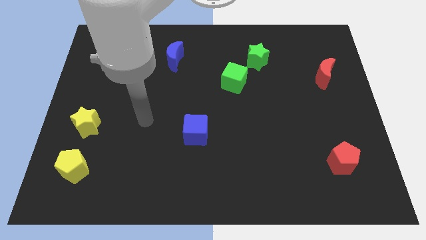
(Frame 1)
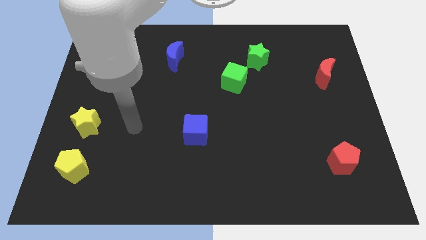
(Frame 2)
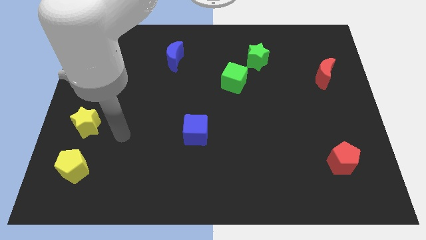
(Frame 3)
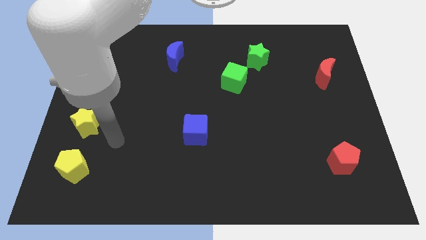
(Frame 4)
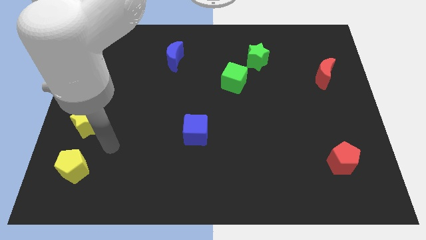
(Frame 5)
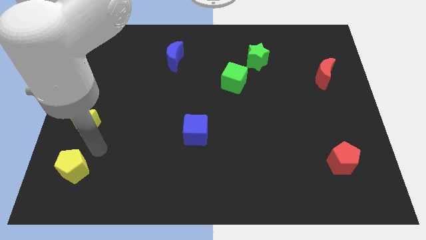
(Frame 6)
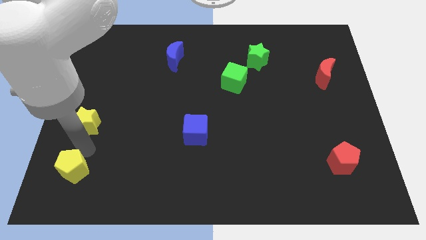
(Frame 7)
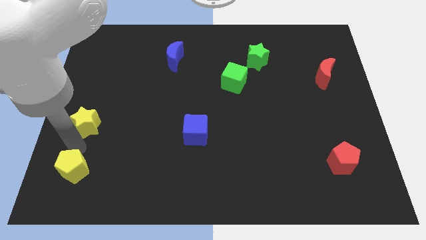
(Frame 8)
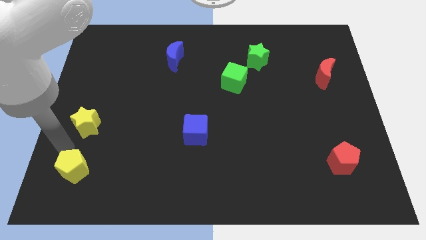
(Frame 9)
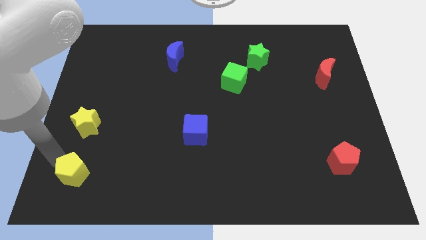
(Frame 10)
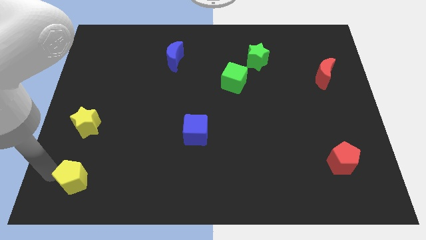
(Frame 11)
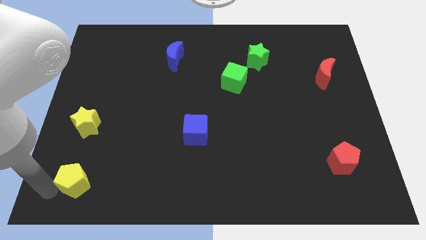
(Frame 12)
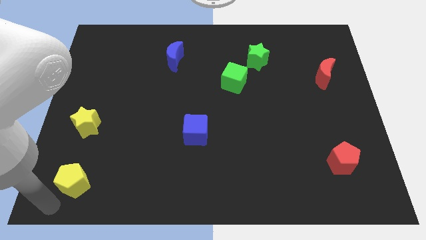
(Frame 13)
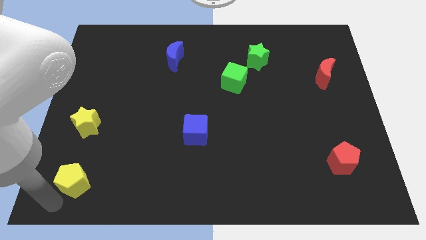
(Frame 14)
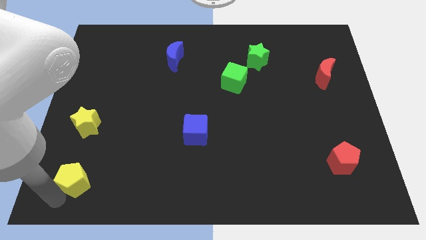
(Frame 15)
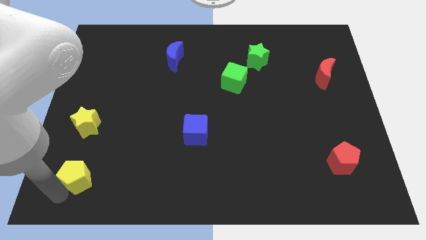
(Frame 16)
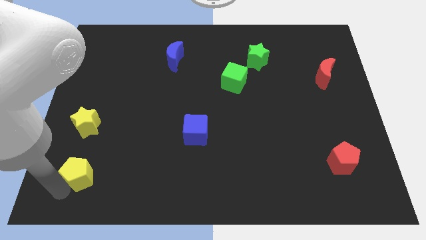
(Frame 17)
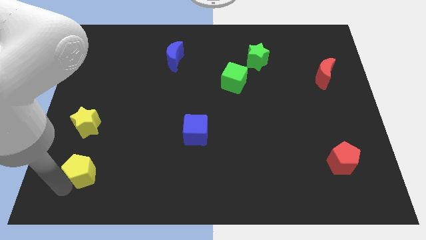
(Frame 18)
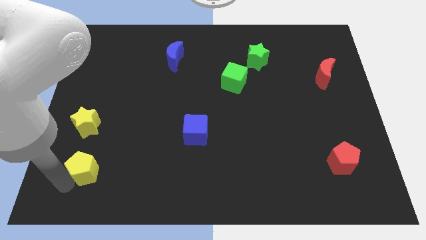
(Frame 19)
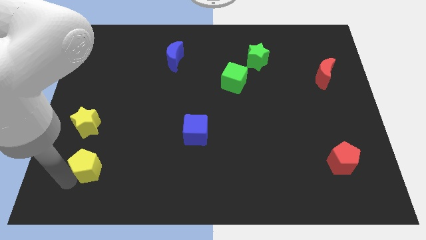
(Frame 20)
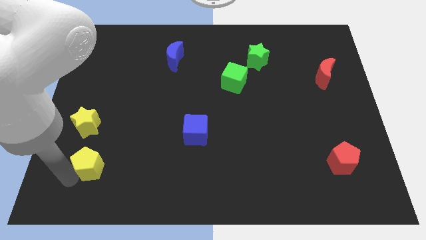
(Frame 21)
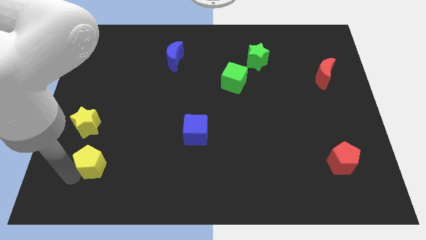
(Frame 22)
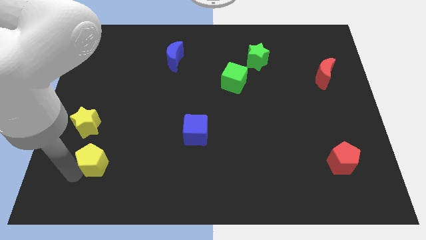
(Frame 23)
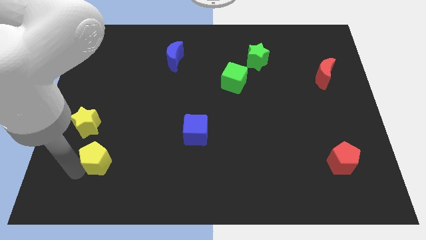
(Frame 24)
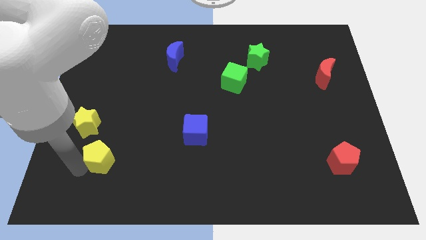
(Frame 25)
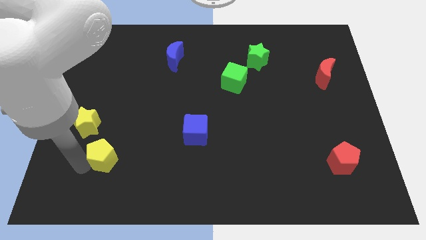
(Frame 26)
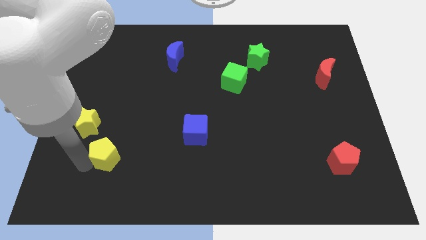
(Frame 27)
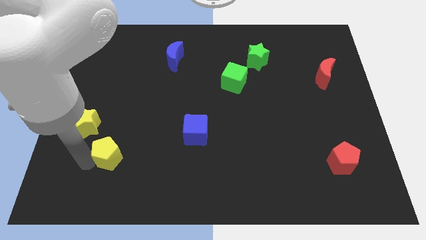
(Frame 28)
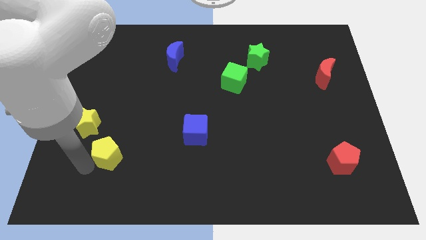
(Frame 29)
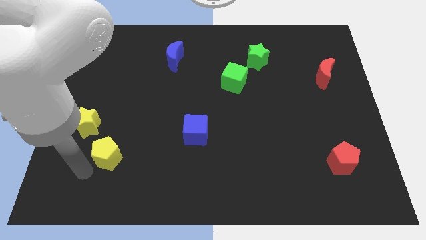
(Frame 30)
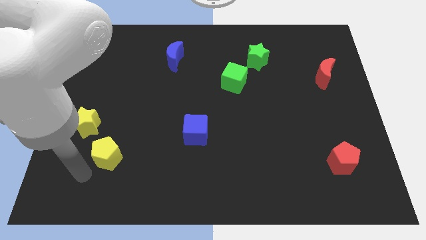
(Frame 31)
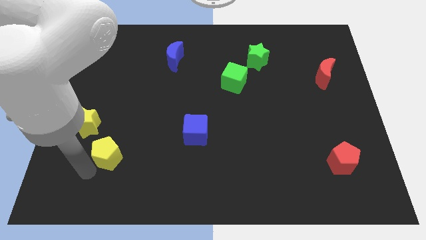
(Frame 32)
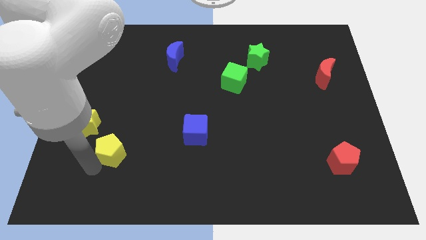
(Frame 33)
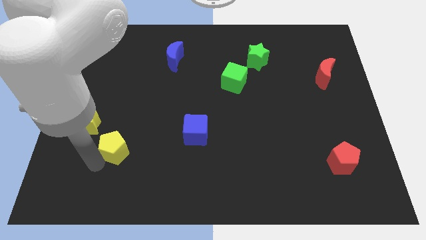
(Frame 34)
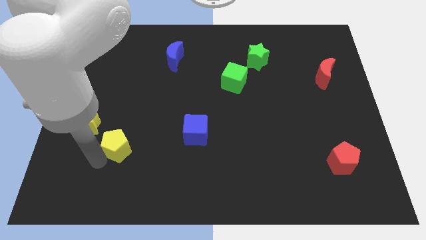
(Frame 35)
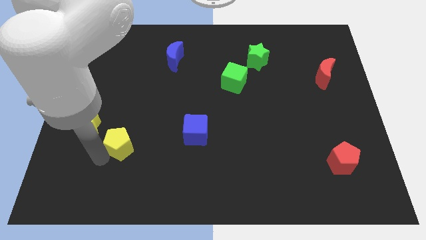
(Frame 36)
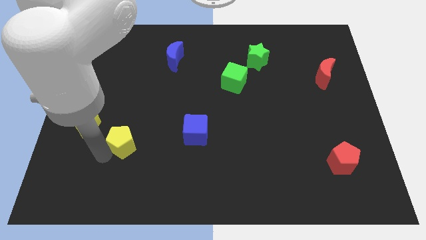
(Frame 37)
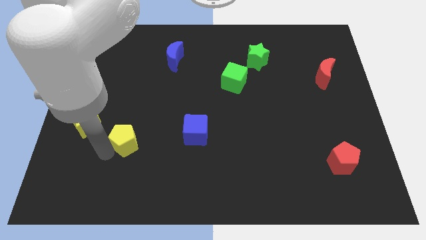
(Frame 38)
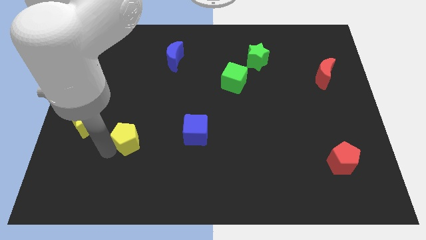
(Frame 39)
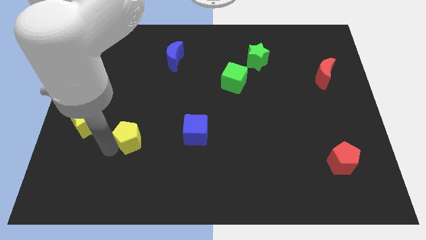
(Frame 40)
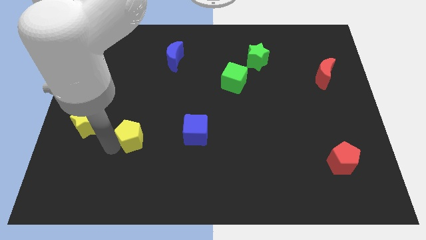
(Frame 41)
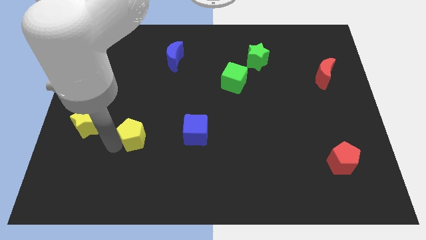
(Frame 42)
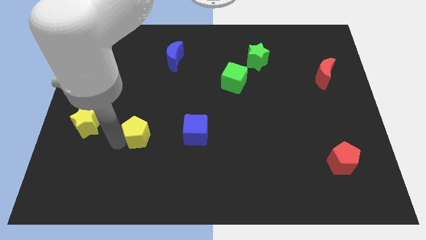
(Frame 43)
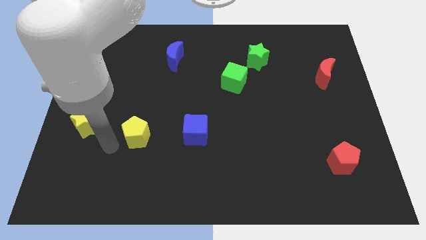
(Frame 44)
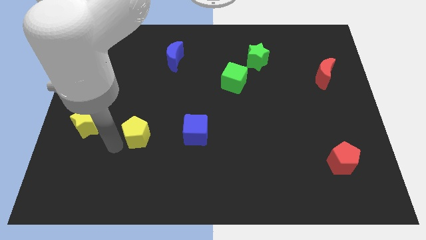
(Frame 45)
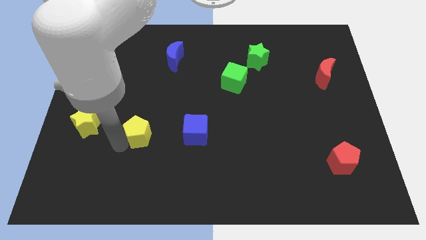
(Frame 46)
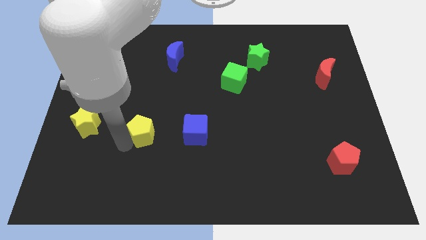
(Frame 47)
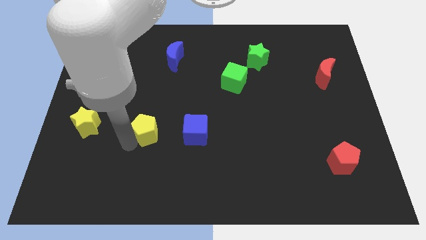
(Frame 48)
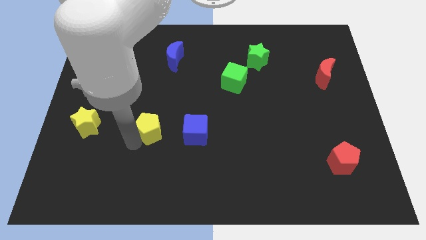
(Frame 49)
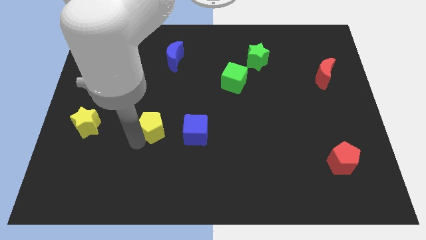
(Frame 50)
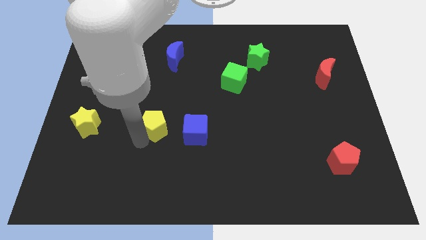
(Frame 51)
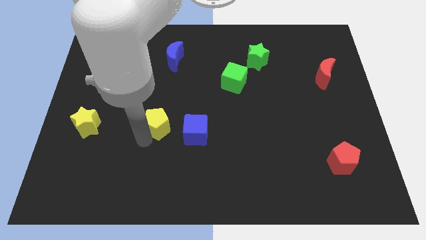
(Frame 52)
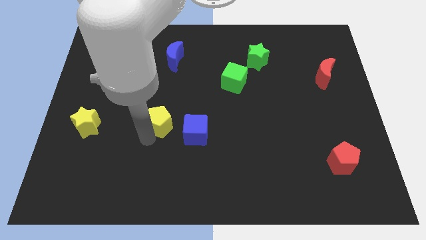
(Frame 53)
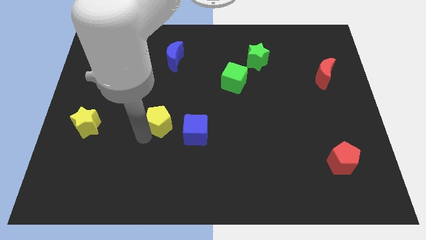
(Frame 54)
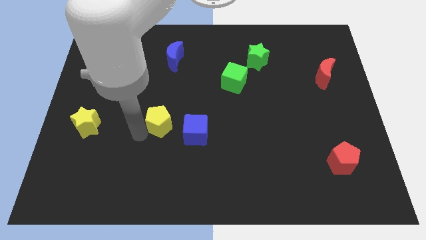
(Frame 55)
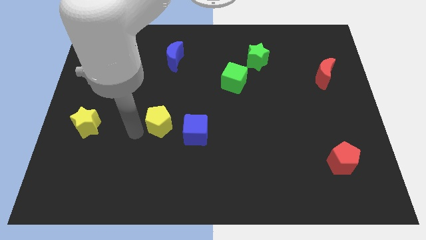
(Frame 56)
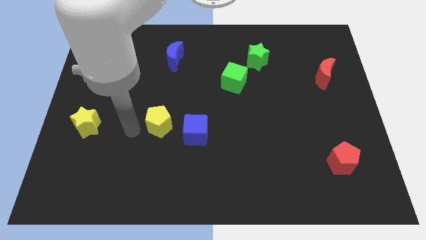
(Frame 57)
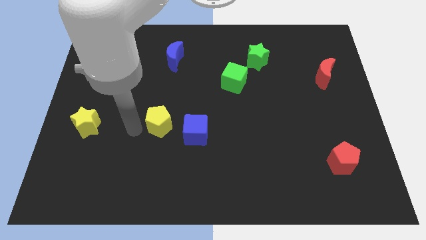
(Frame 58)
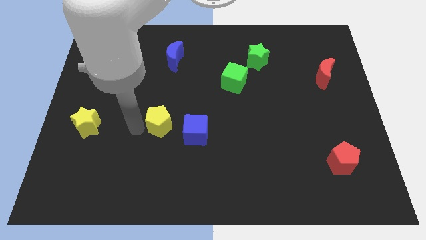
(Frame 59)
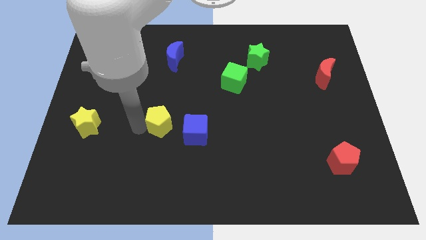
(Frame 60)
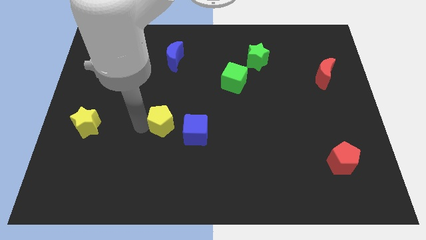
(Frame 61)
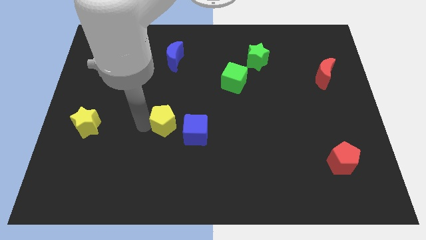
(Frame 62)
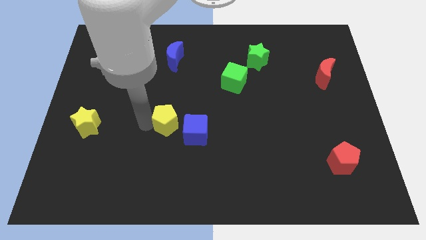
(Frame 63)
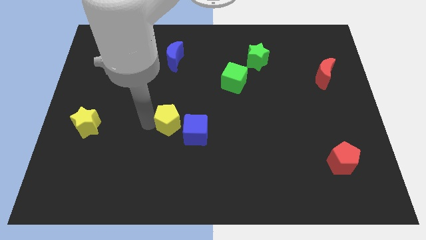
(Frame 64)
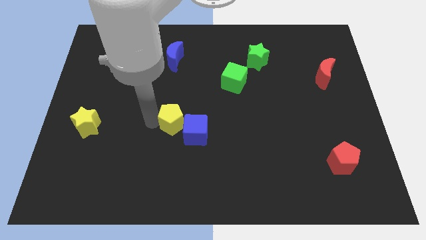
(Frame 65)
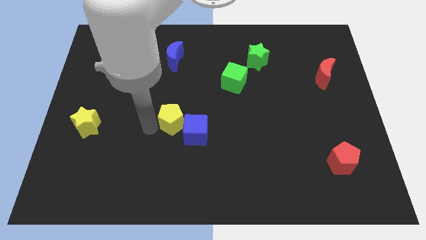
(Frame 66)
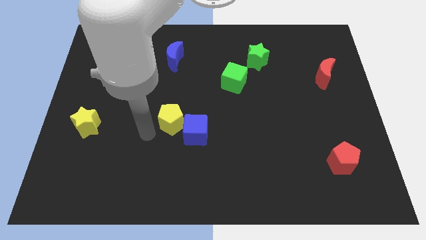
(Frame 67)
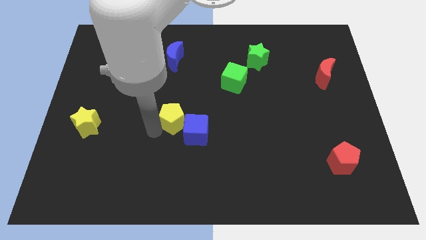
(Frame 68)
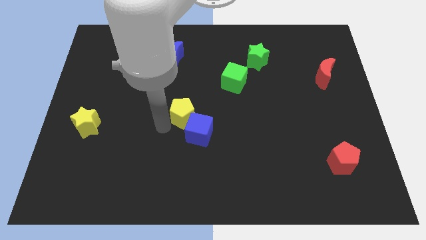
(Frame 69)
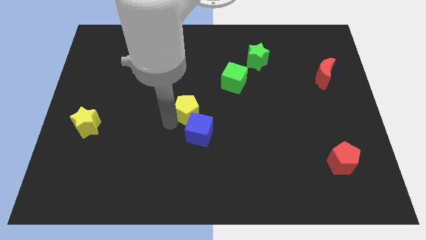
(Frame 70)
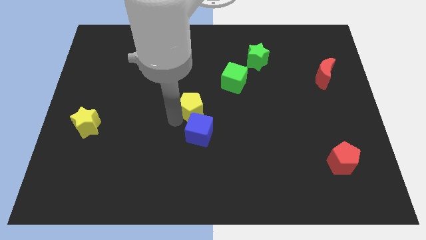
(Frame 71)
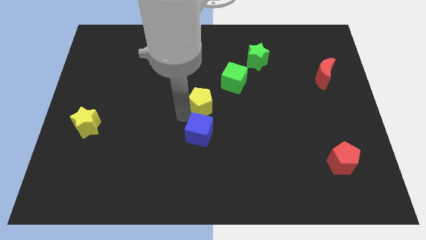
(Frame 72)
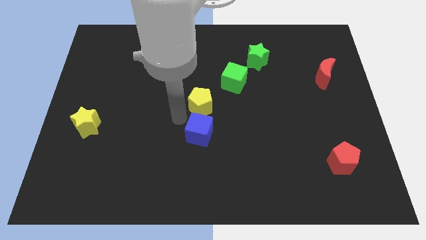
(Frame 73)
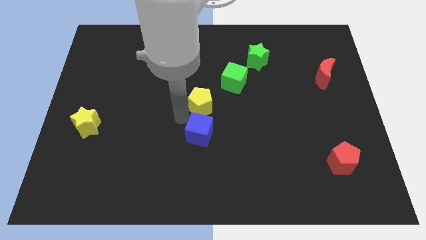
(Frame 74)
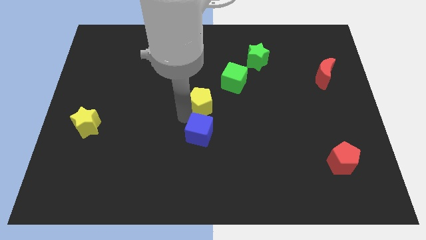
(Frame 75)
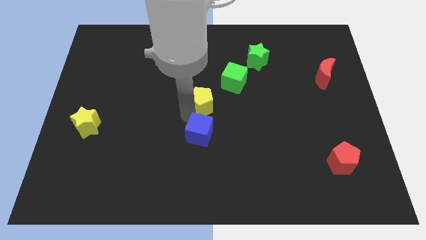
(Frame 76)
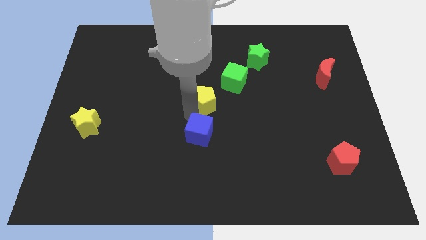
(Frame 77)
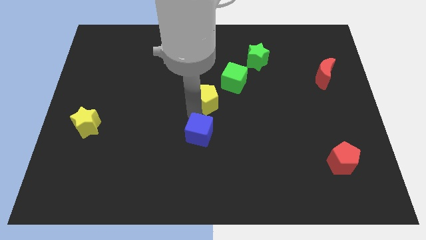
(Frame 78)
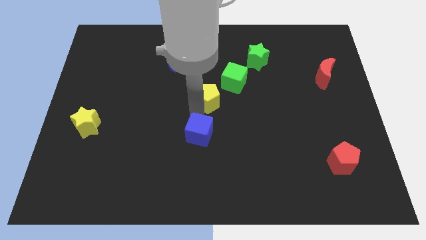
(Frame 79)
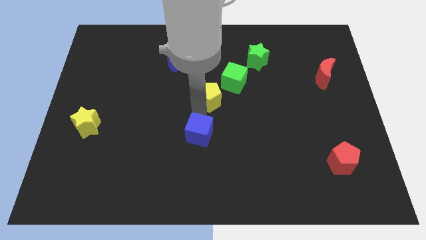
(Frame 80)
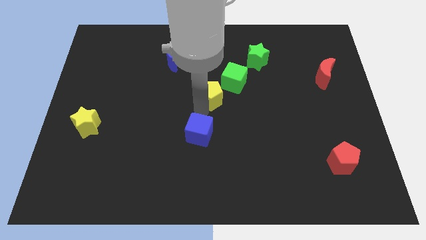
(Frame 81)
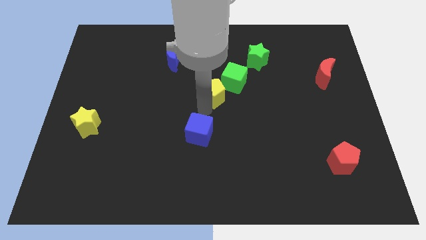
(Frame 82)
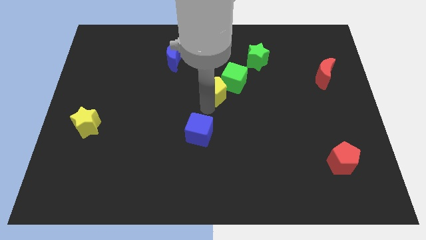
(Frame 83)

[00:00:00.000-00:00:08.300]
push the yellow pentagon next to the green cube
